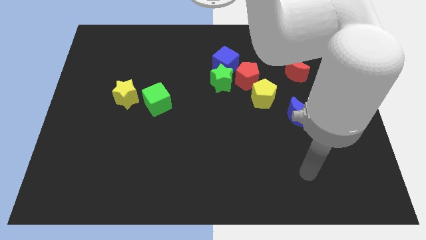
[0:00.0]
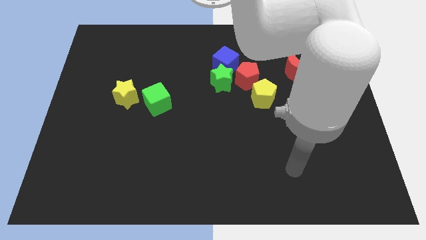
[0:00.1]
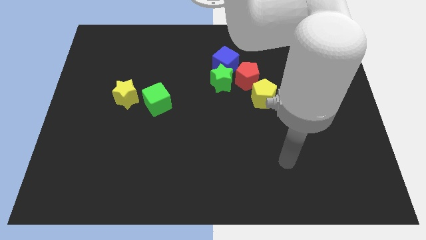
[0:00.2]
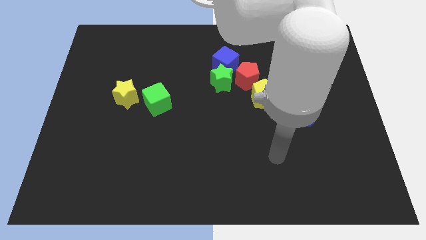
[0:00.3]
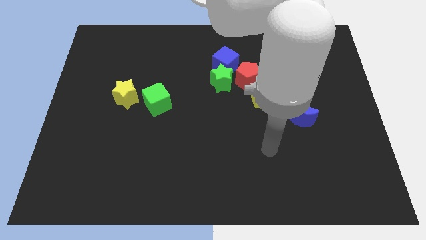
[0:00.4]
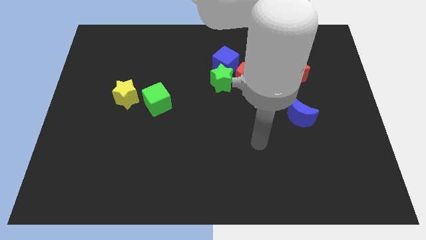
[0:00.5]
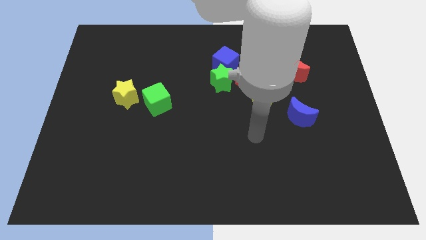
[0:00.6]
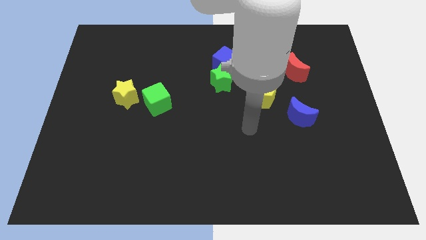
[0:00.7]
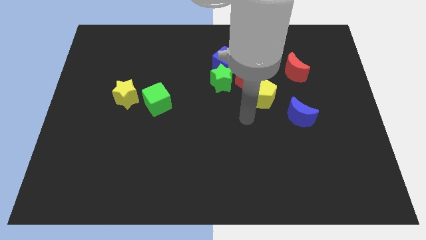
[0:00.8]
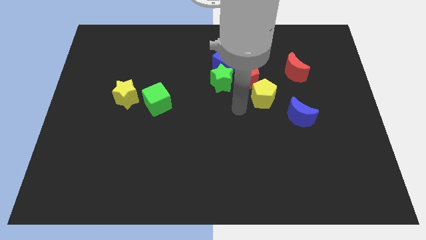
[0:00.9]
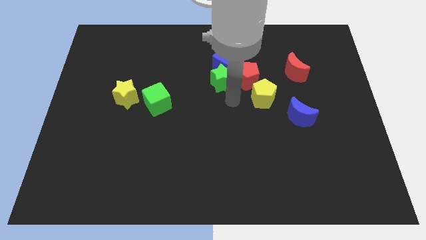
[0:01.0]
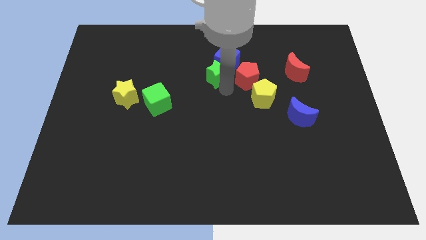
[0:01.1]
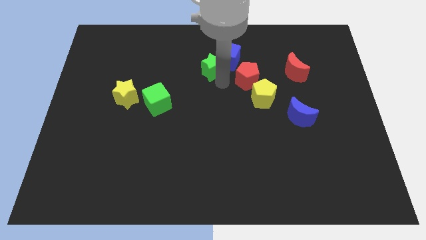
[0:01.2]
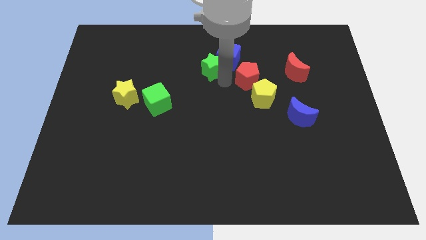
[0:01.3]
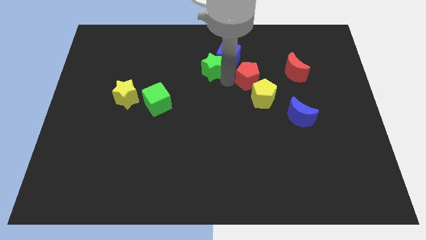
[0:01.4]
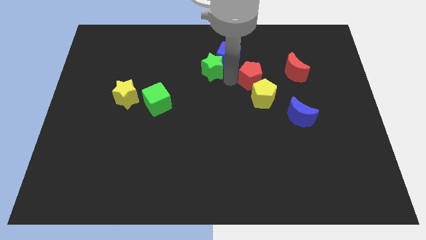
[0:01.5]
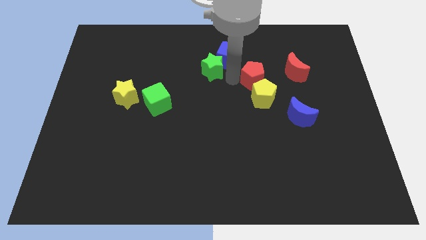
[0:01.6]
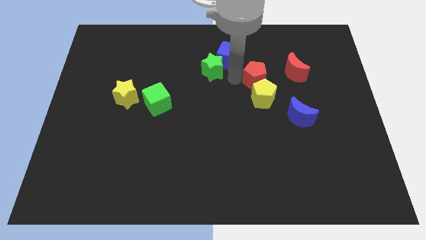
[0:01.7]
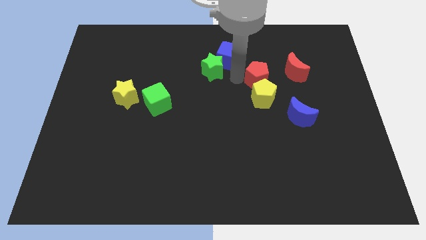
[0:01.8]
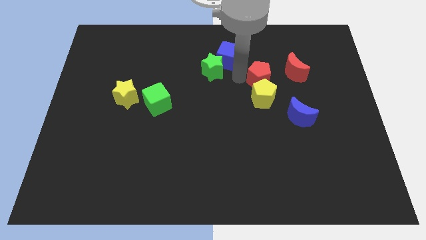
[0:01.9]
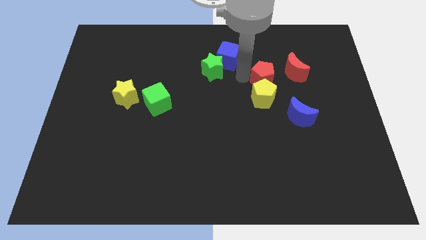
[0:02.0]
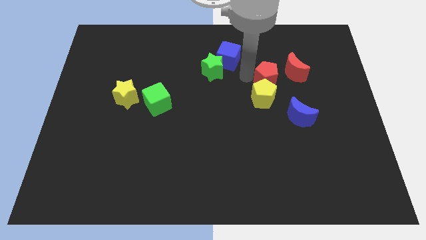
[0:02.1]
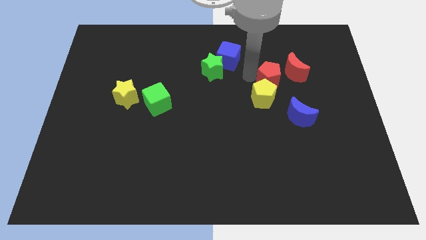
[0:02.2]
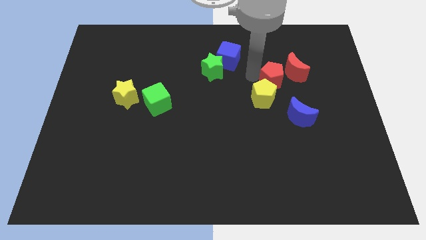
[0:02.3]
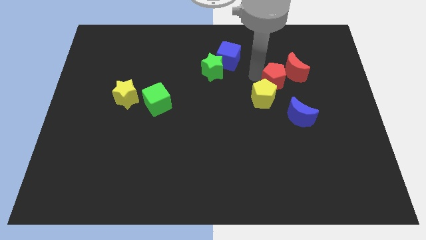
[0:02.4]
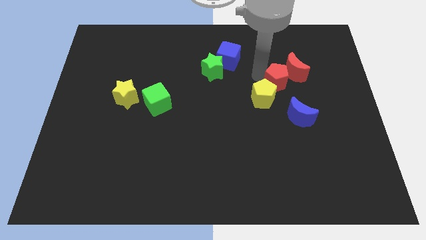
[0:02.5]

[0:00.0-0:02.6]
slightly move the red pentagon to the right

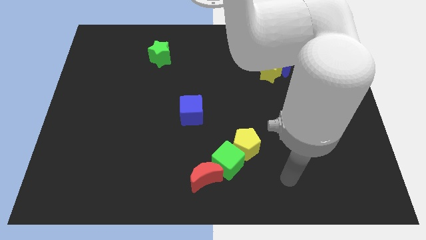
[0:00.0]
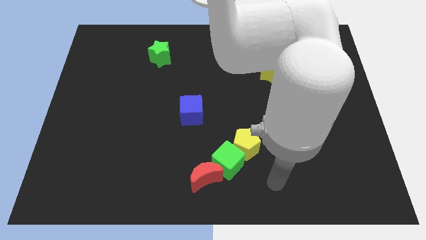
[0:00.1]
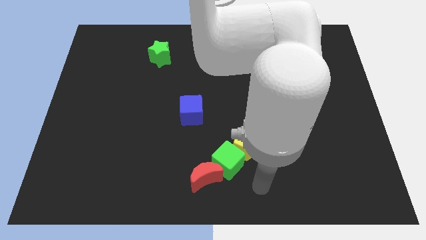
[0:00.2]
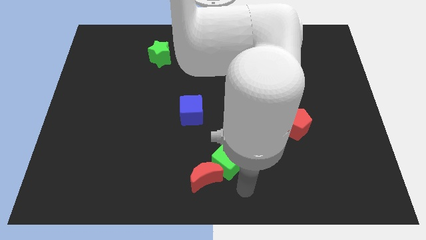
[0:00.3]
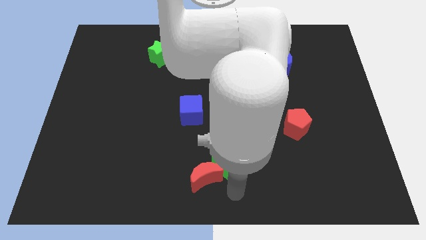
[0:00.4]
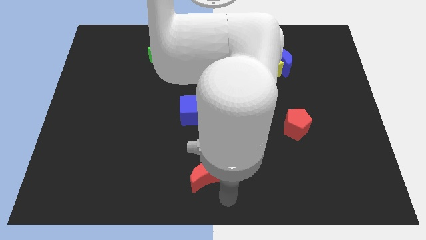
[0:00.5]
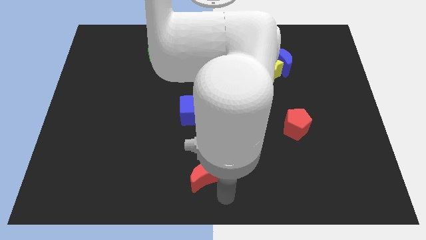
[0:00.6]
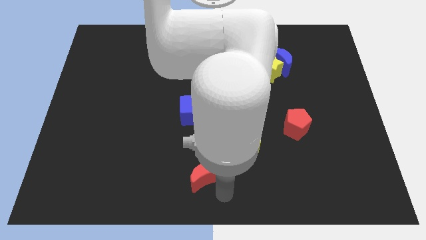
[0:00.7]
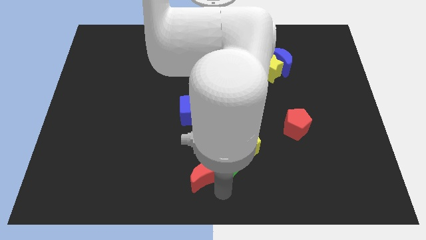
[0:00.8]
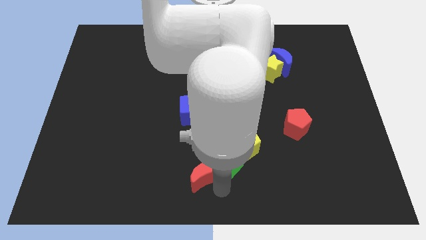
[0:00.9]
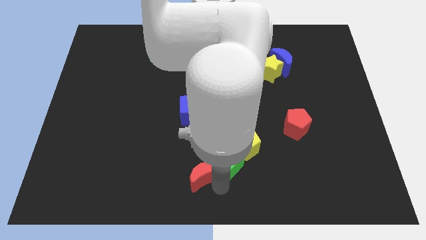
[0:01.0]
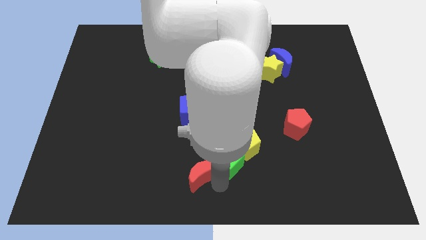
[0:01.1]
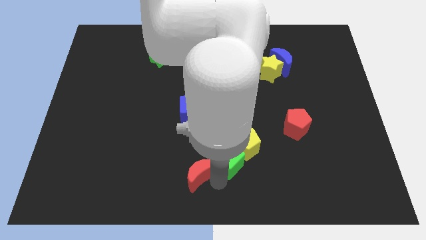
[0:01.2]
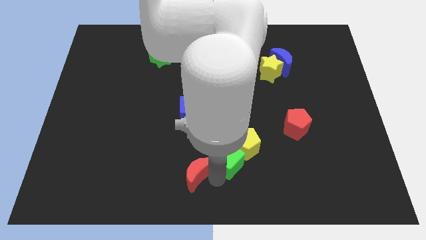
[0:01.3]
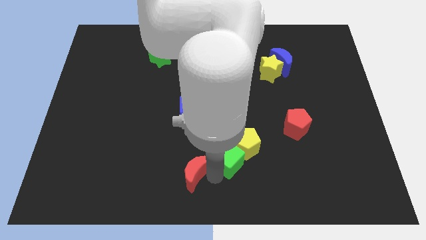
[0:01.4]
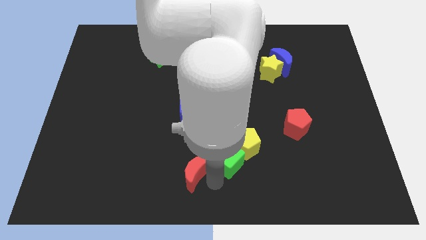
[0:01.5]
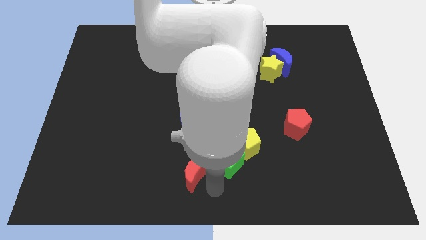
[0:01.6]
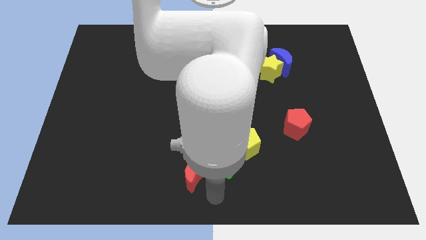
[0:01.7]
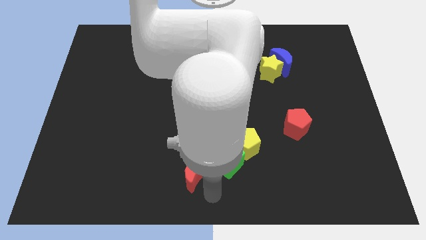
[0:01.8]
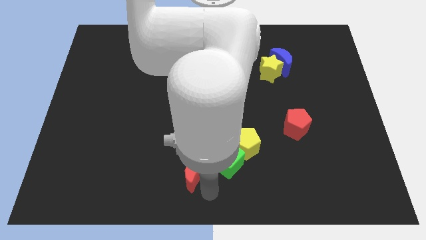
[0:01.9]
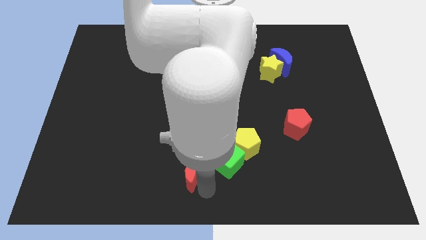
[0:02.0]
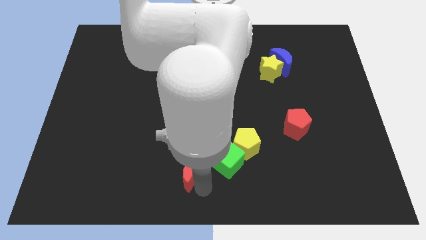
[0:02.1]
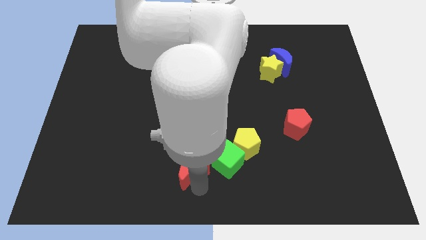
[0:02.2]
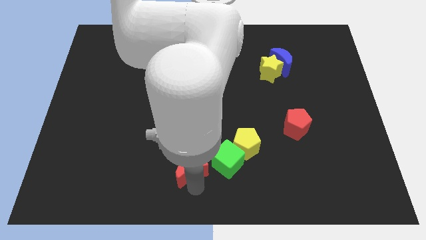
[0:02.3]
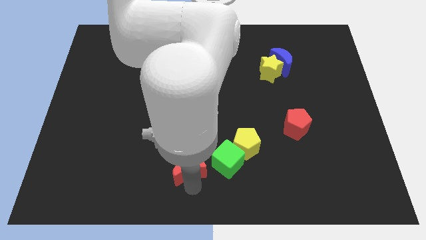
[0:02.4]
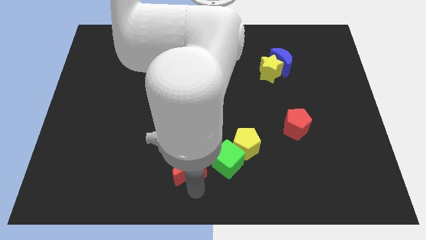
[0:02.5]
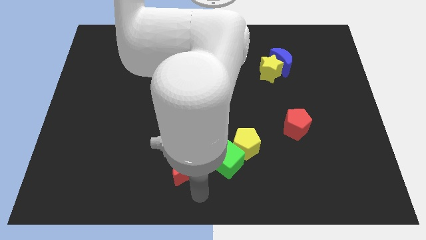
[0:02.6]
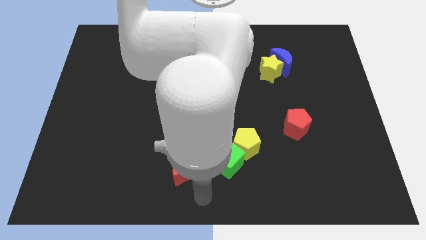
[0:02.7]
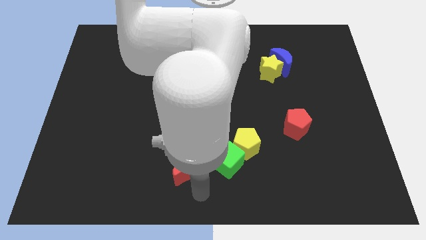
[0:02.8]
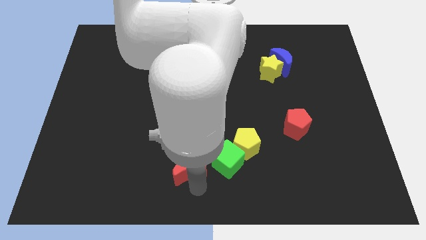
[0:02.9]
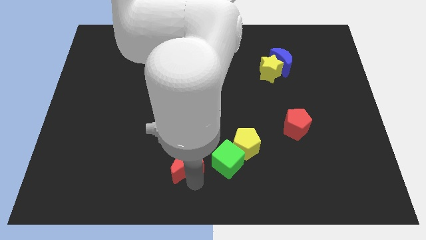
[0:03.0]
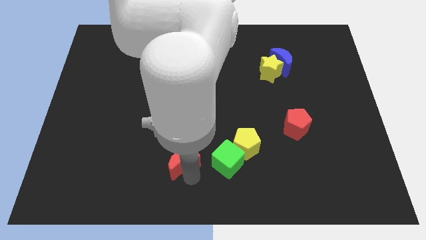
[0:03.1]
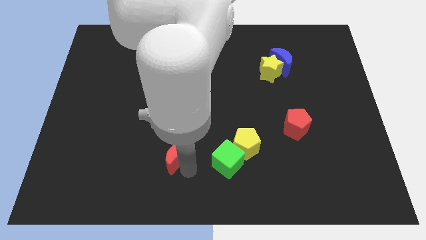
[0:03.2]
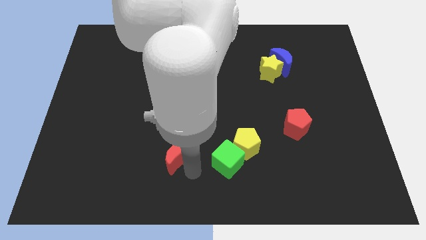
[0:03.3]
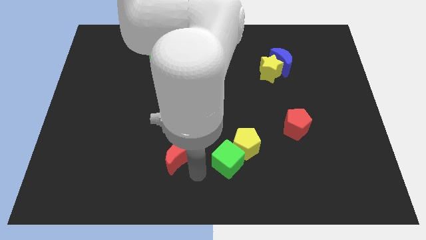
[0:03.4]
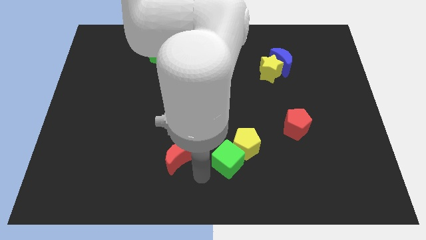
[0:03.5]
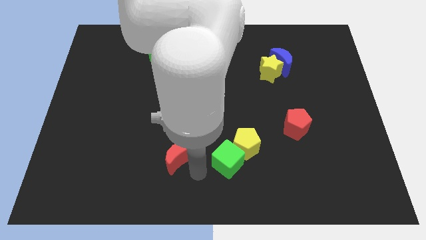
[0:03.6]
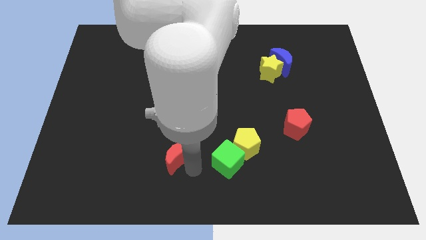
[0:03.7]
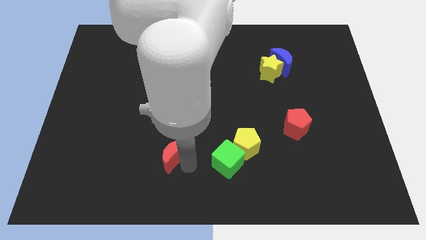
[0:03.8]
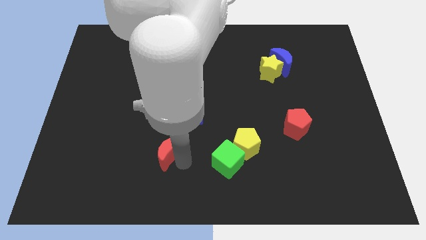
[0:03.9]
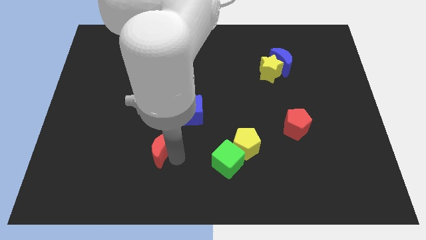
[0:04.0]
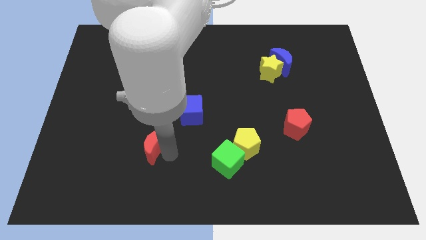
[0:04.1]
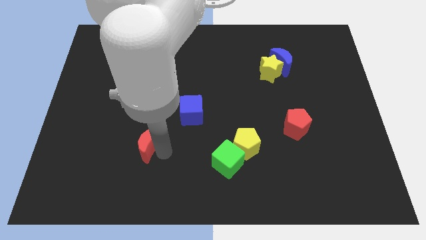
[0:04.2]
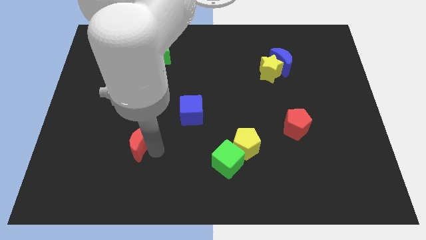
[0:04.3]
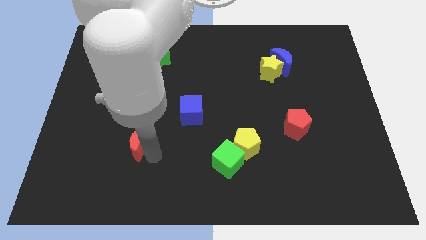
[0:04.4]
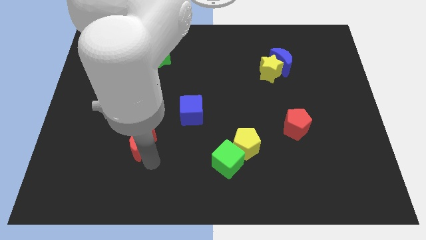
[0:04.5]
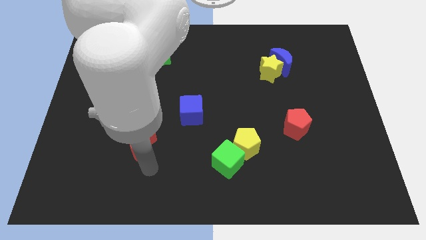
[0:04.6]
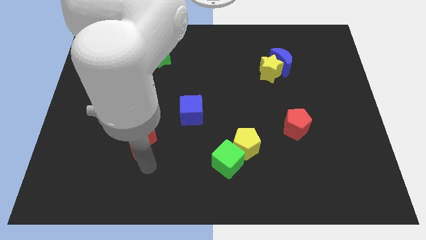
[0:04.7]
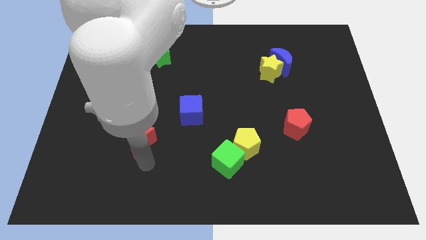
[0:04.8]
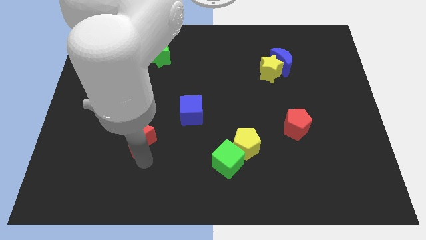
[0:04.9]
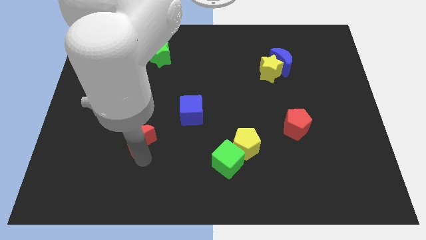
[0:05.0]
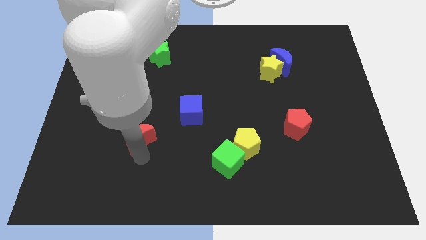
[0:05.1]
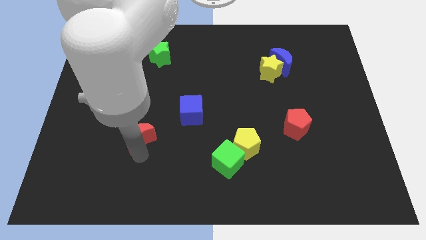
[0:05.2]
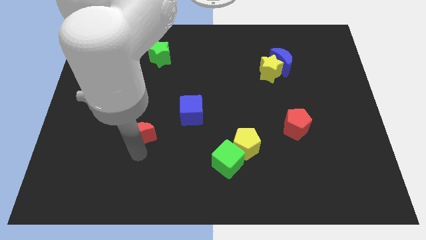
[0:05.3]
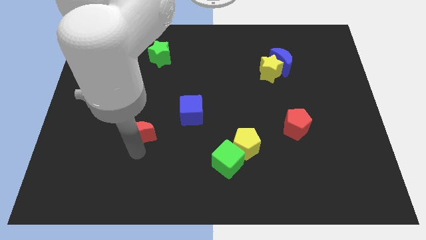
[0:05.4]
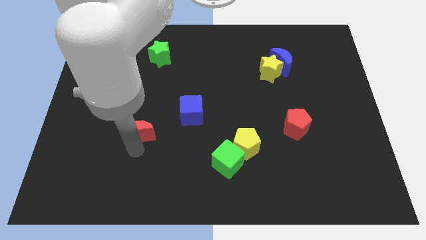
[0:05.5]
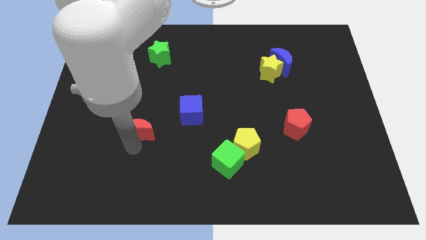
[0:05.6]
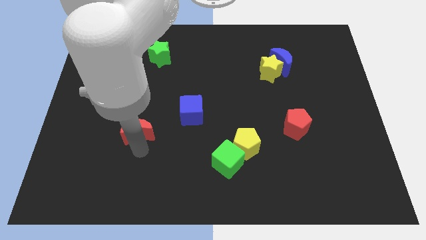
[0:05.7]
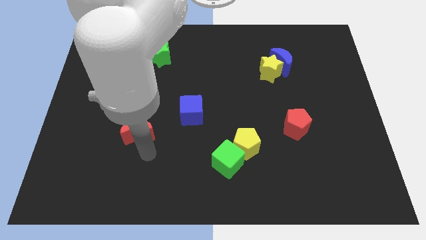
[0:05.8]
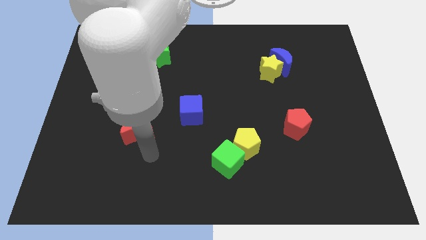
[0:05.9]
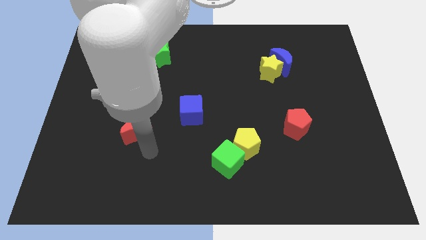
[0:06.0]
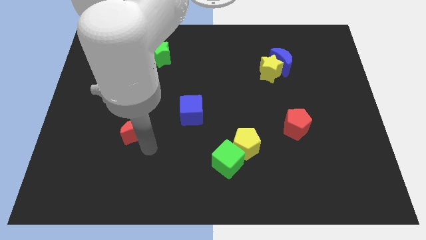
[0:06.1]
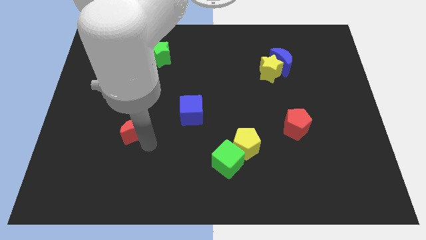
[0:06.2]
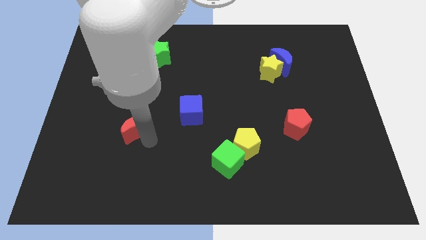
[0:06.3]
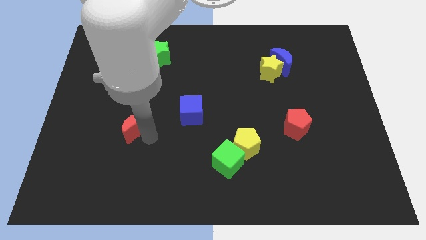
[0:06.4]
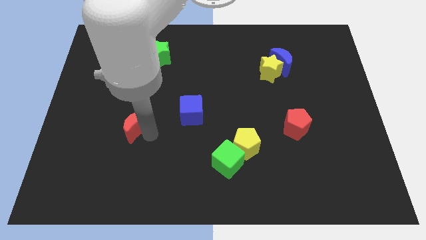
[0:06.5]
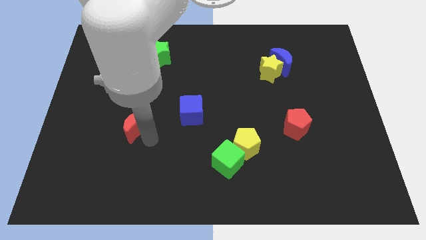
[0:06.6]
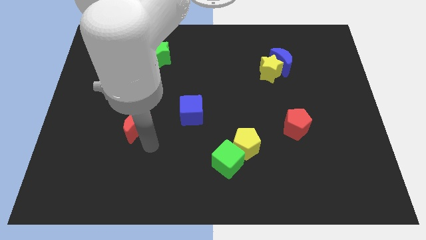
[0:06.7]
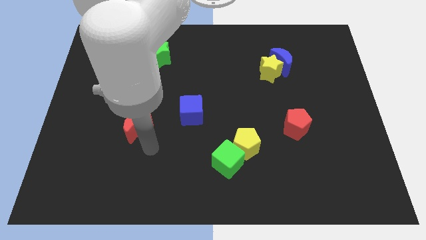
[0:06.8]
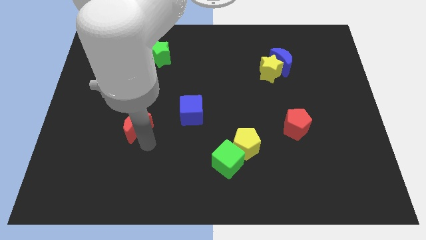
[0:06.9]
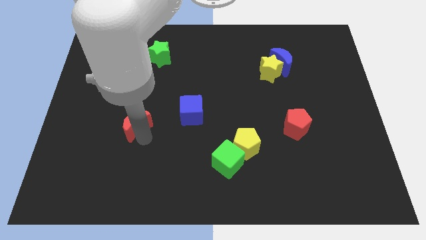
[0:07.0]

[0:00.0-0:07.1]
slide the red moon upwards and then to the left
